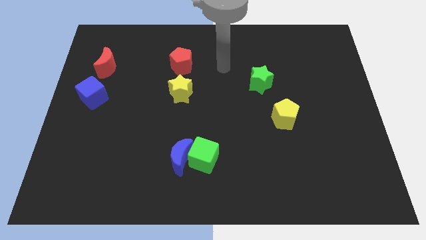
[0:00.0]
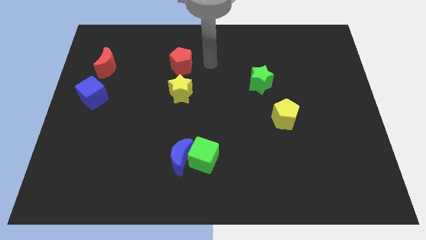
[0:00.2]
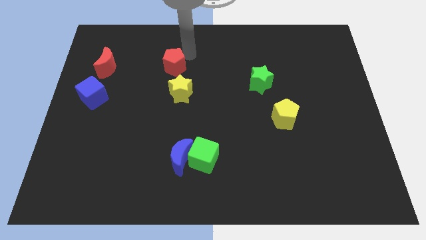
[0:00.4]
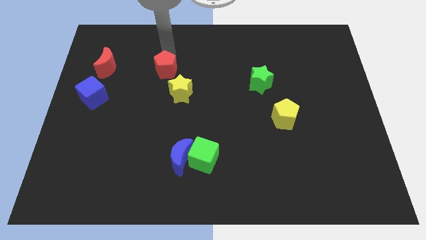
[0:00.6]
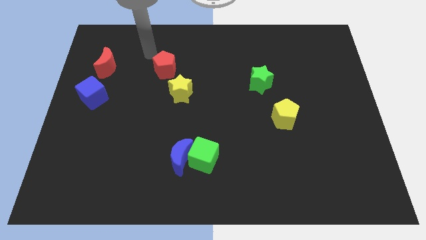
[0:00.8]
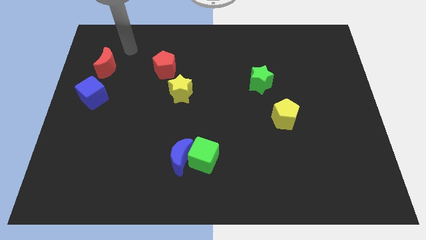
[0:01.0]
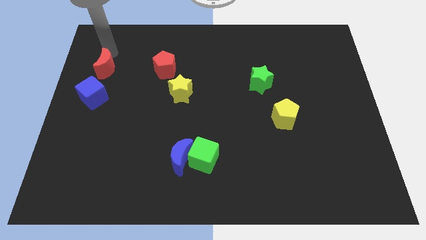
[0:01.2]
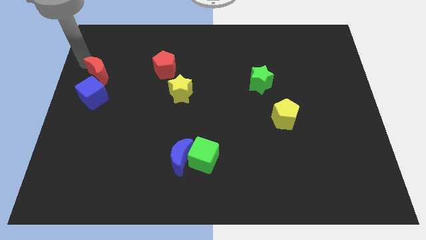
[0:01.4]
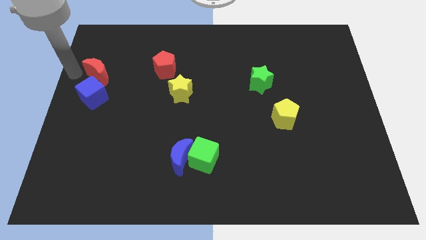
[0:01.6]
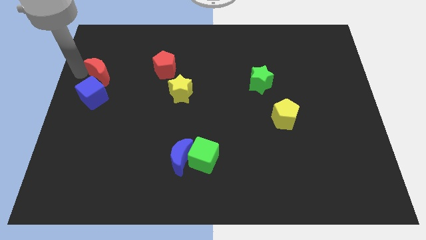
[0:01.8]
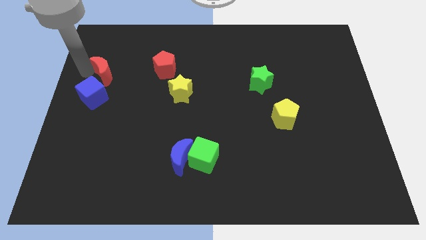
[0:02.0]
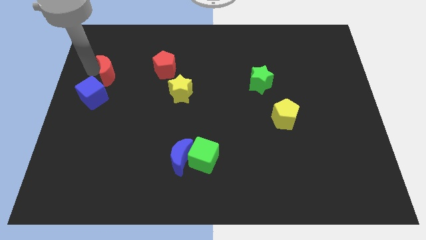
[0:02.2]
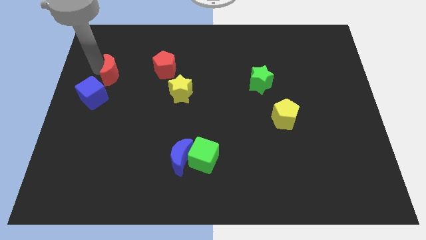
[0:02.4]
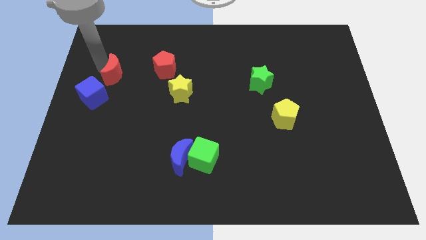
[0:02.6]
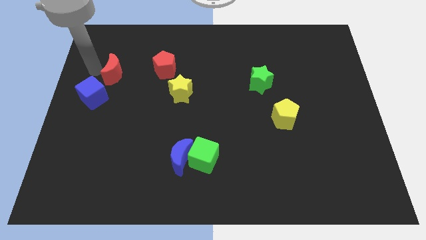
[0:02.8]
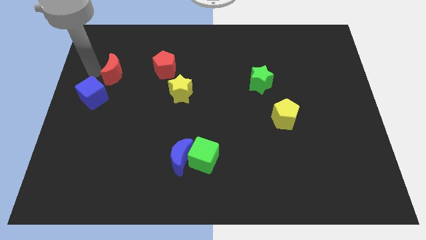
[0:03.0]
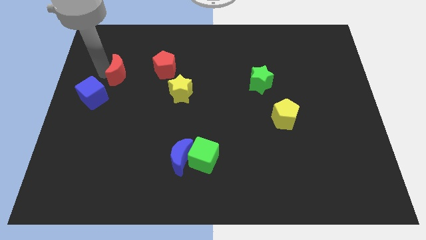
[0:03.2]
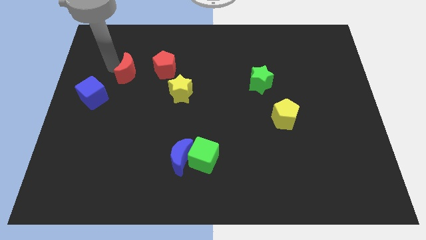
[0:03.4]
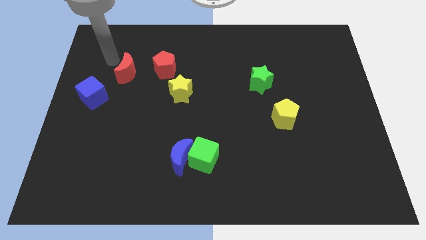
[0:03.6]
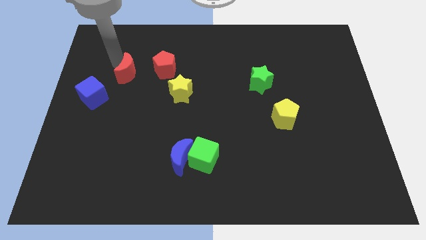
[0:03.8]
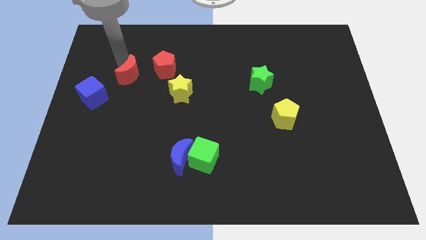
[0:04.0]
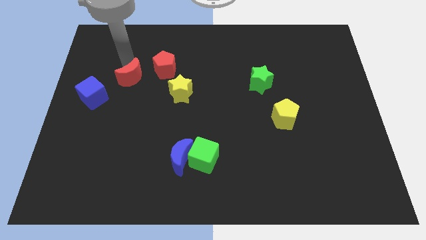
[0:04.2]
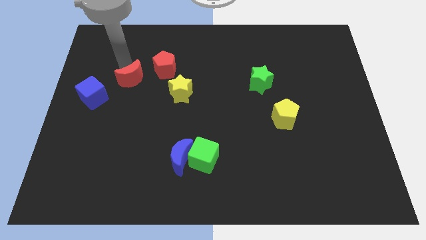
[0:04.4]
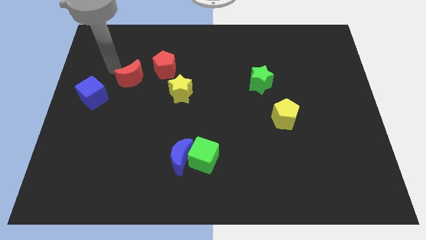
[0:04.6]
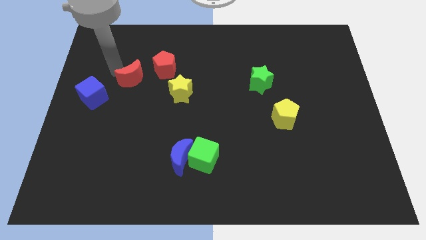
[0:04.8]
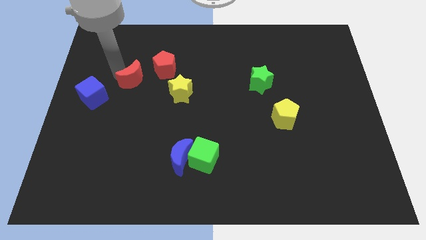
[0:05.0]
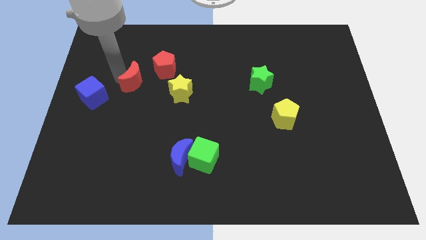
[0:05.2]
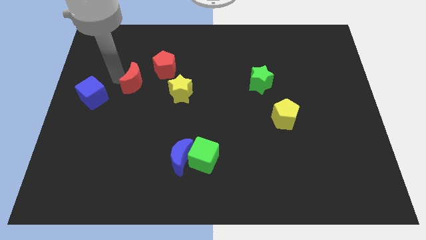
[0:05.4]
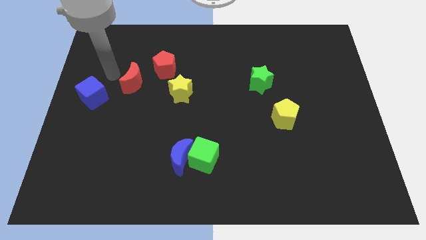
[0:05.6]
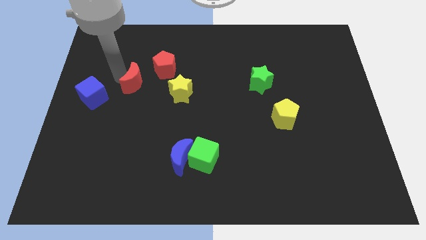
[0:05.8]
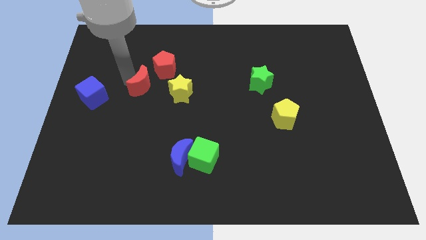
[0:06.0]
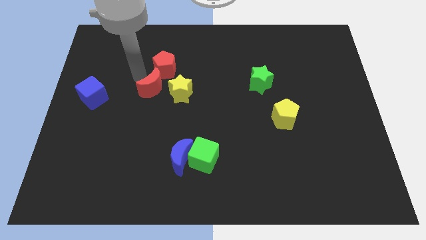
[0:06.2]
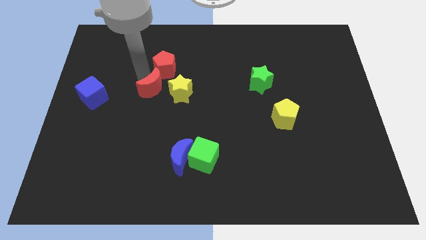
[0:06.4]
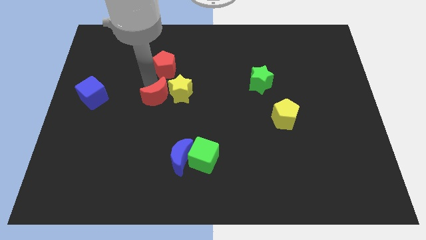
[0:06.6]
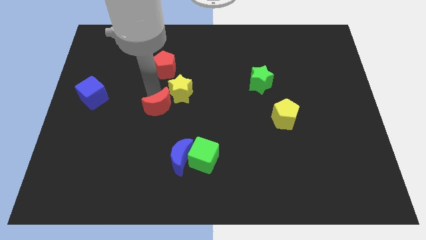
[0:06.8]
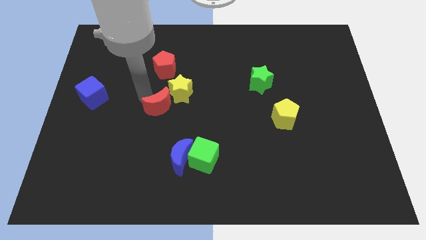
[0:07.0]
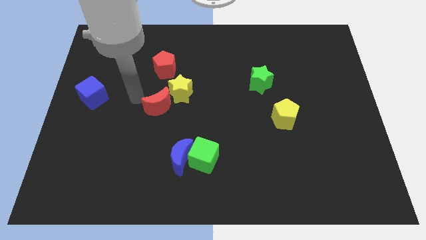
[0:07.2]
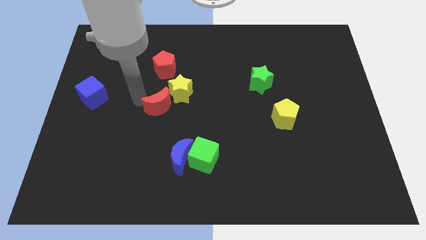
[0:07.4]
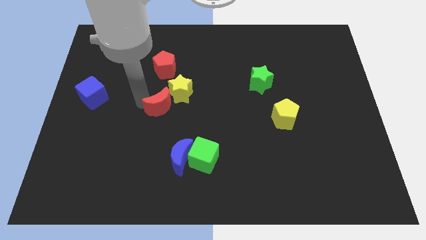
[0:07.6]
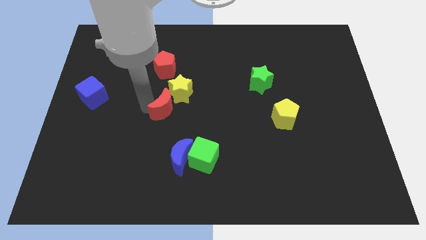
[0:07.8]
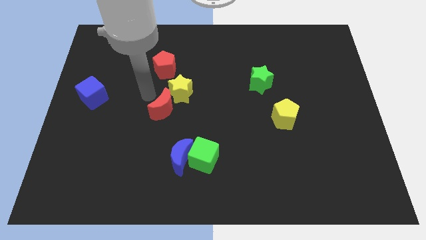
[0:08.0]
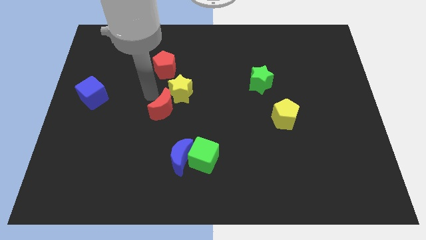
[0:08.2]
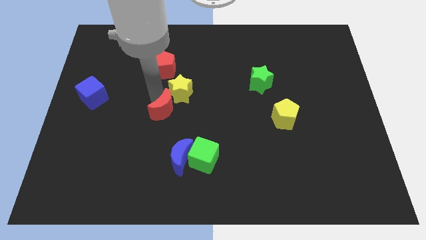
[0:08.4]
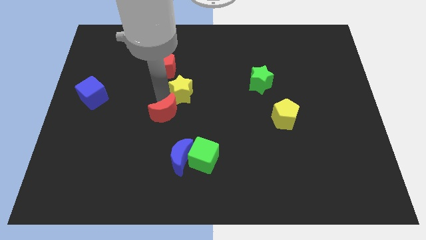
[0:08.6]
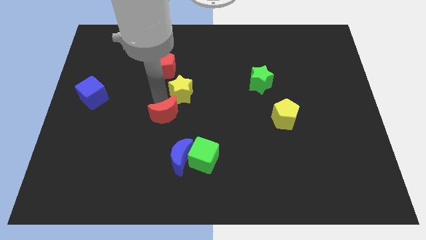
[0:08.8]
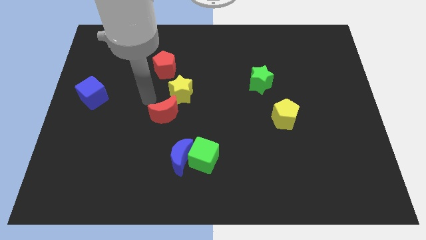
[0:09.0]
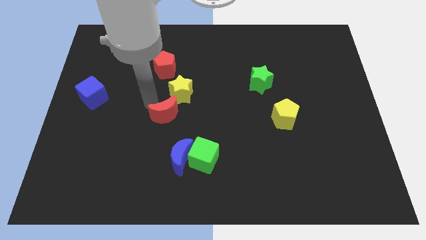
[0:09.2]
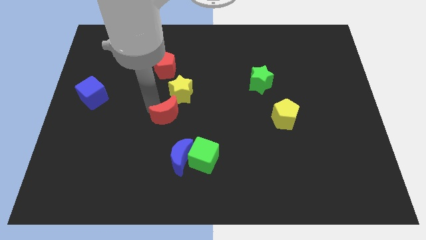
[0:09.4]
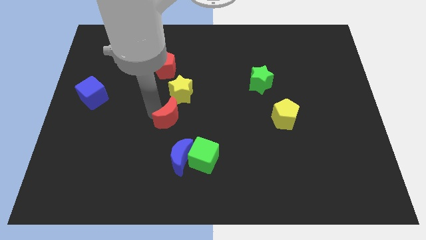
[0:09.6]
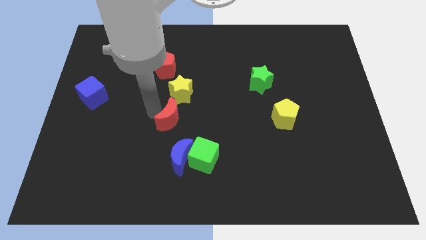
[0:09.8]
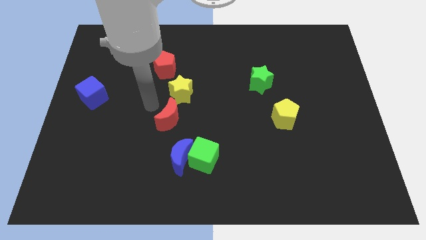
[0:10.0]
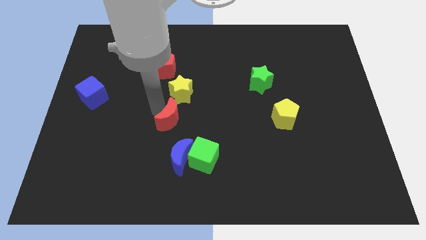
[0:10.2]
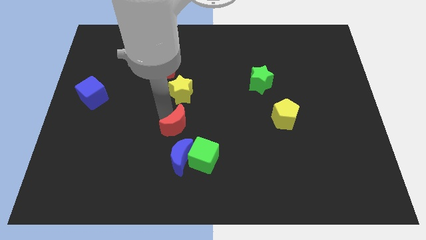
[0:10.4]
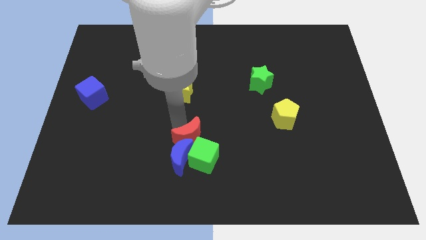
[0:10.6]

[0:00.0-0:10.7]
move the red moon close to the green cube

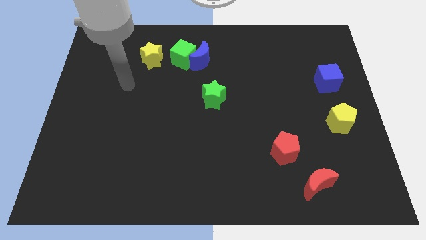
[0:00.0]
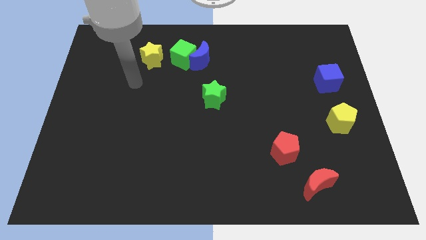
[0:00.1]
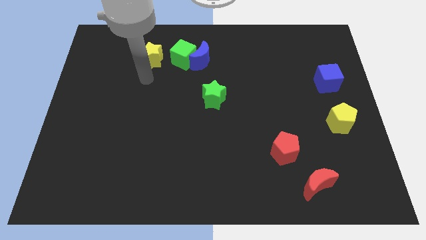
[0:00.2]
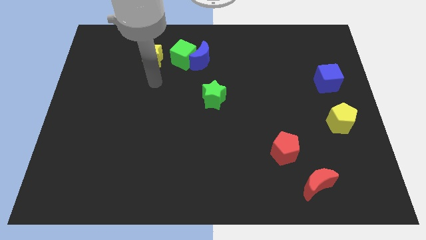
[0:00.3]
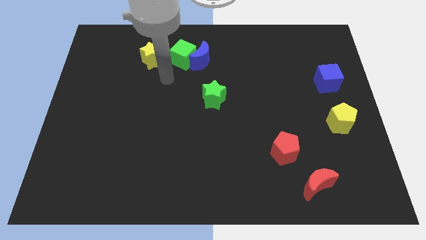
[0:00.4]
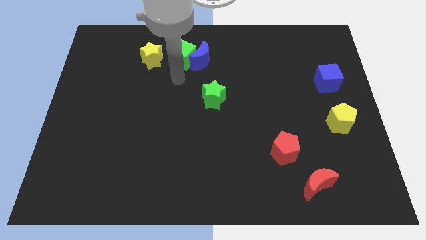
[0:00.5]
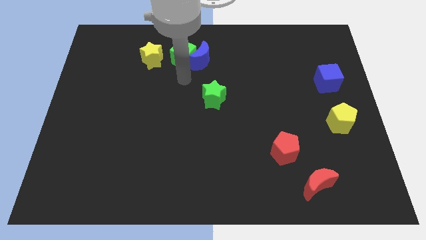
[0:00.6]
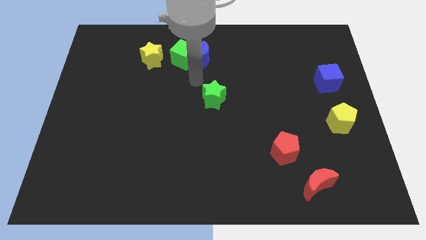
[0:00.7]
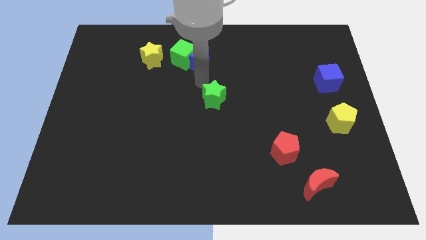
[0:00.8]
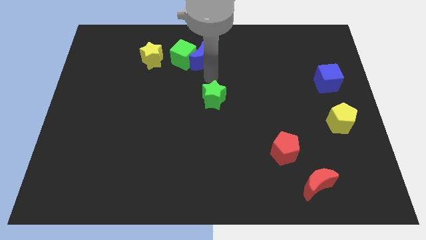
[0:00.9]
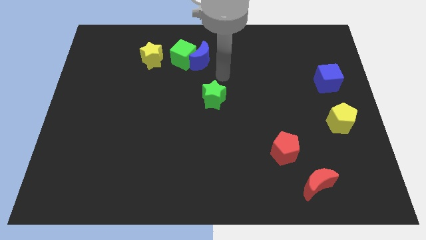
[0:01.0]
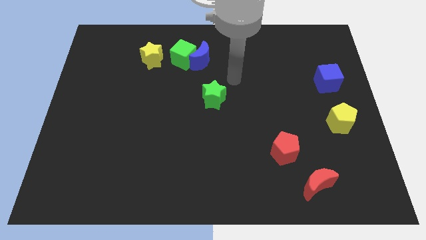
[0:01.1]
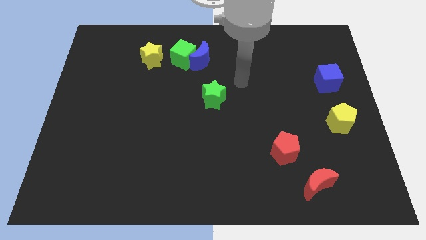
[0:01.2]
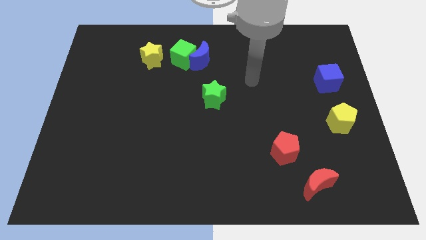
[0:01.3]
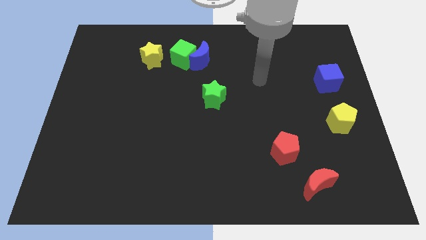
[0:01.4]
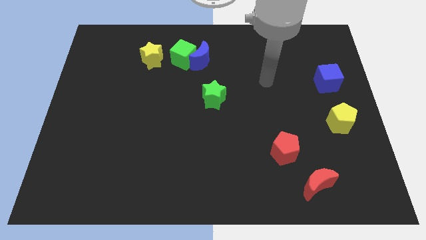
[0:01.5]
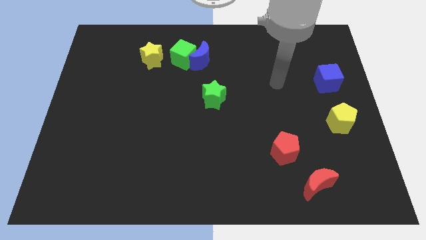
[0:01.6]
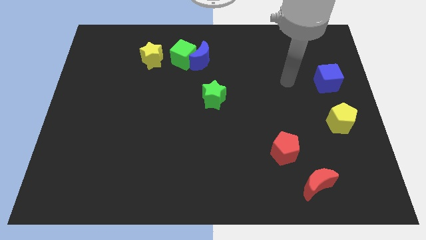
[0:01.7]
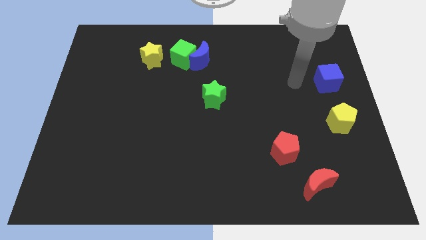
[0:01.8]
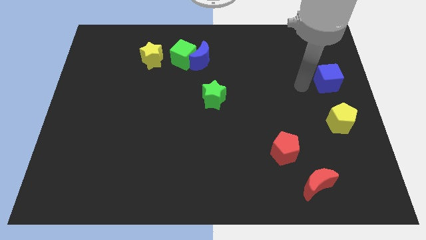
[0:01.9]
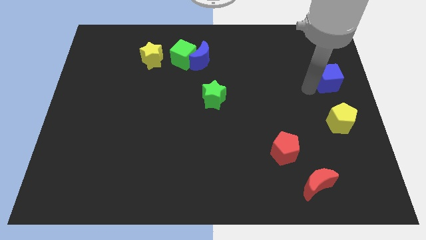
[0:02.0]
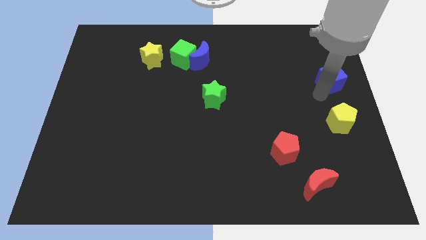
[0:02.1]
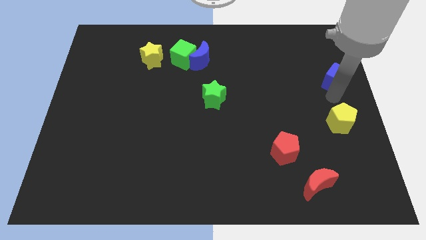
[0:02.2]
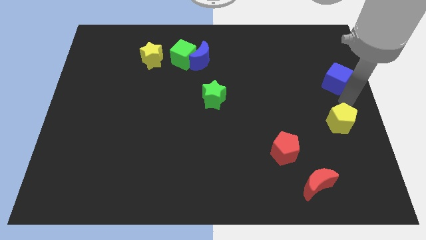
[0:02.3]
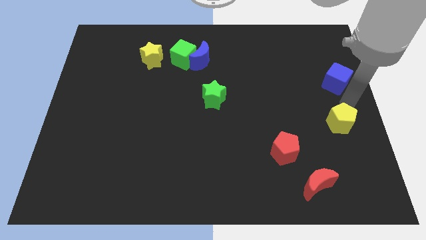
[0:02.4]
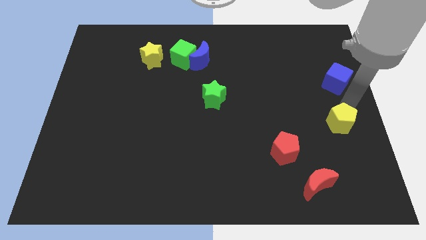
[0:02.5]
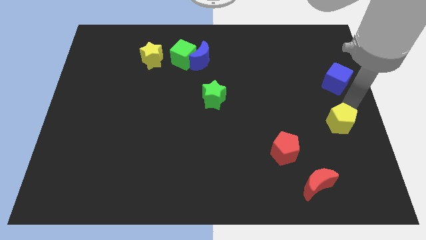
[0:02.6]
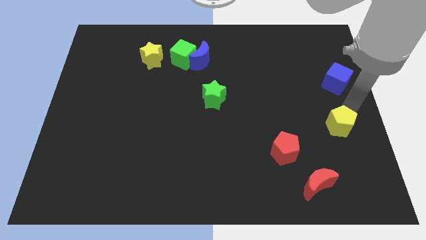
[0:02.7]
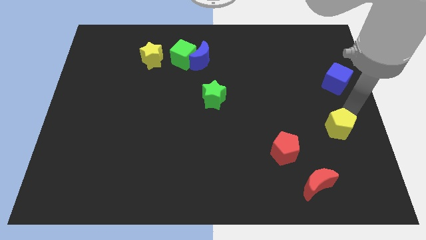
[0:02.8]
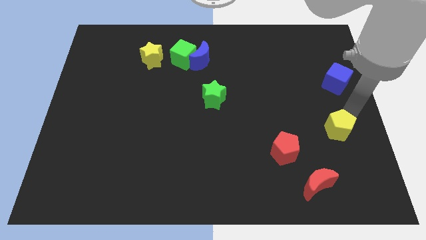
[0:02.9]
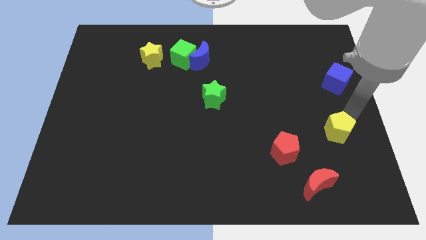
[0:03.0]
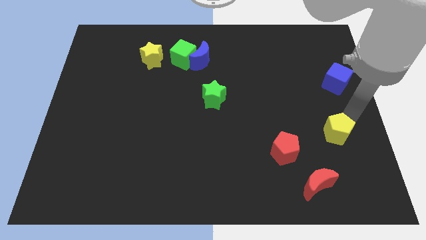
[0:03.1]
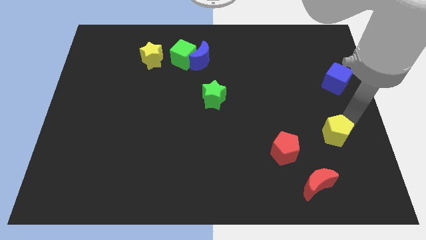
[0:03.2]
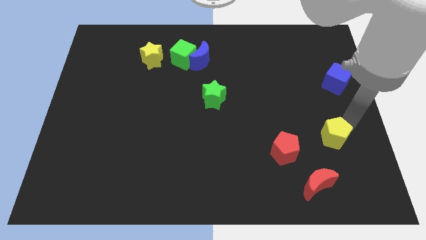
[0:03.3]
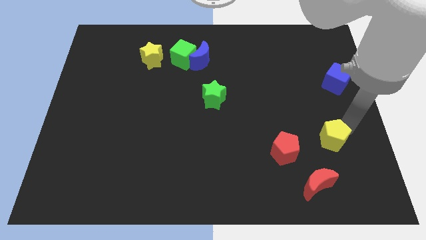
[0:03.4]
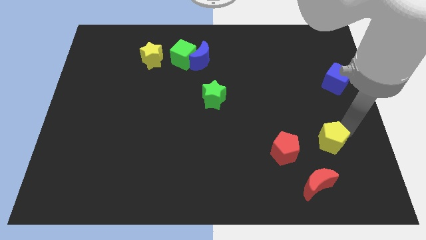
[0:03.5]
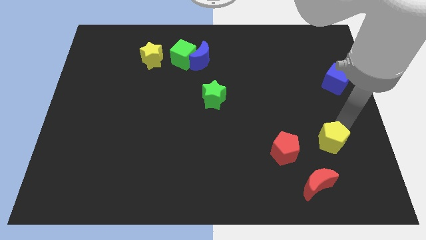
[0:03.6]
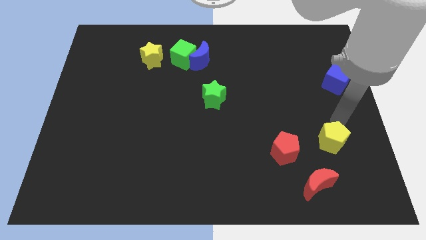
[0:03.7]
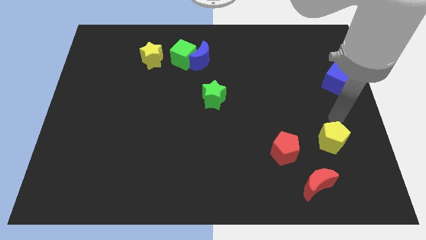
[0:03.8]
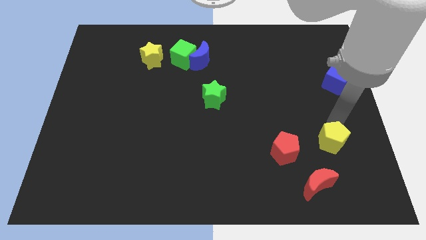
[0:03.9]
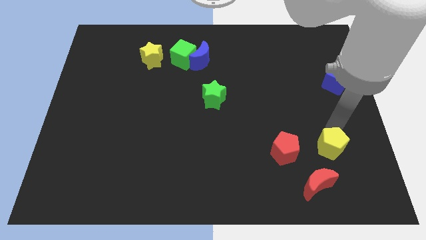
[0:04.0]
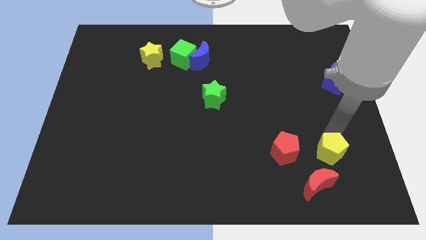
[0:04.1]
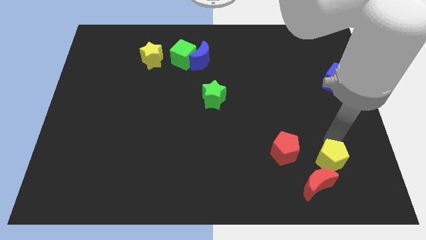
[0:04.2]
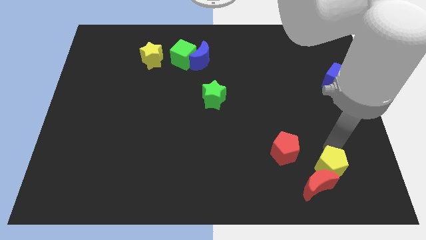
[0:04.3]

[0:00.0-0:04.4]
push the yellow pentagon to the red moon
